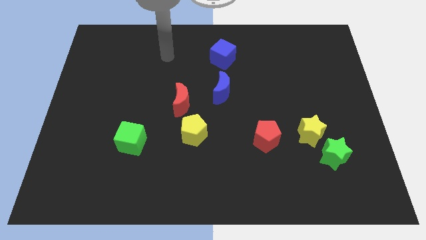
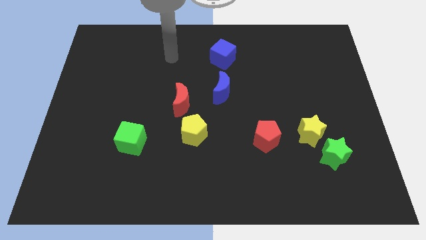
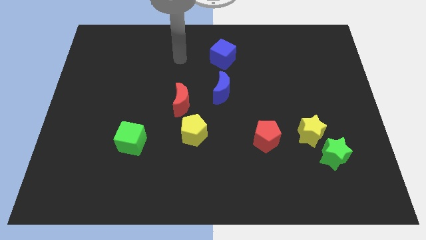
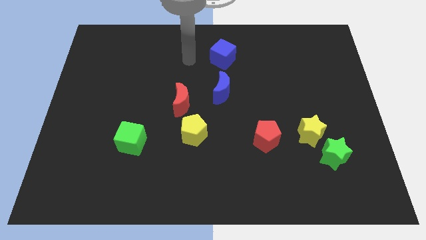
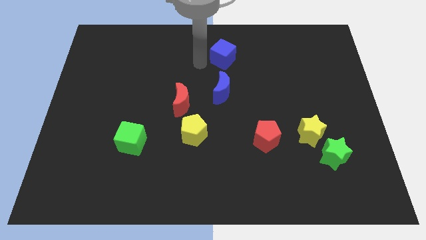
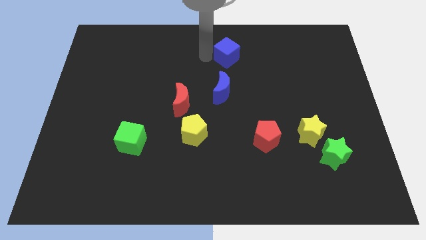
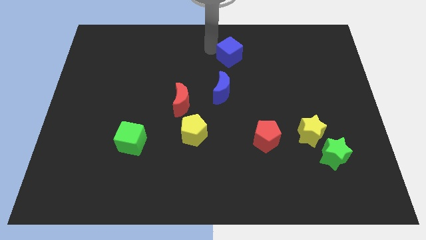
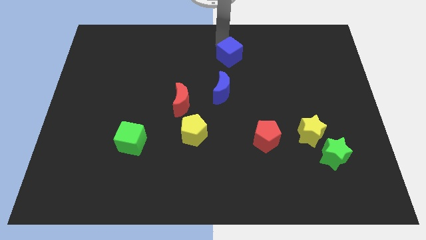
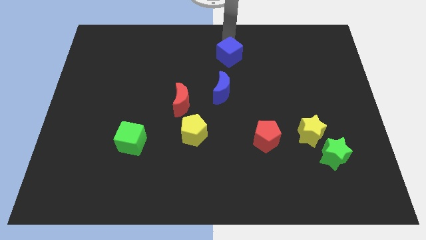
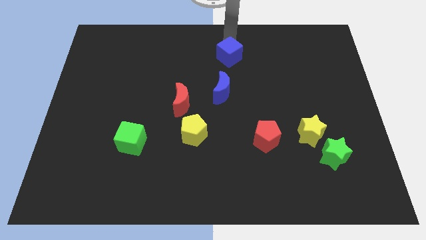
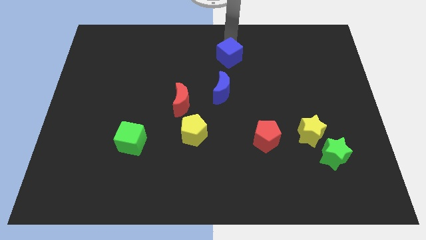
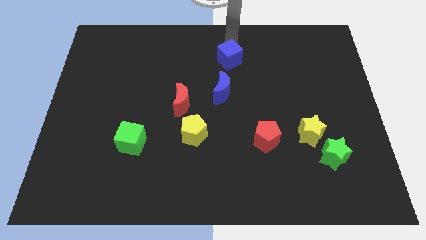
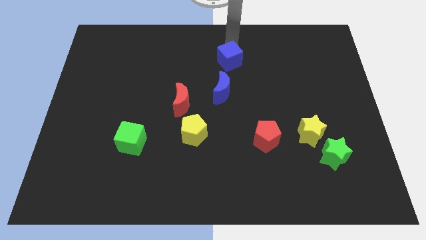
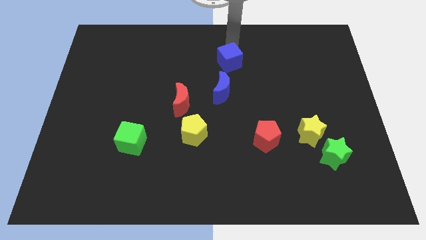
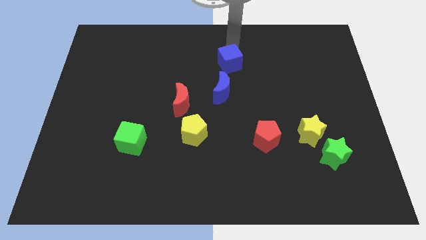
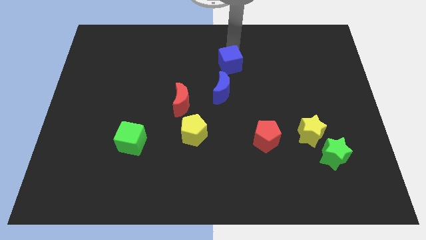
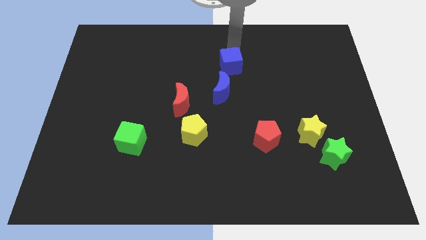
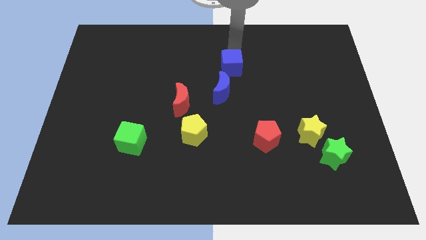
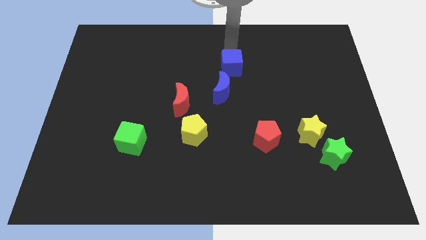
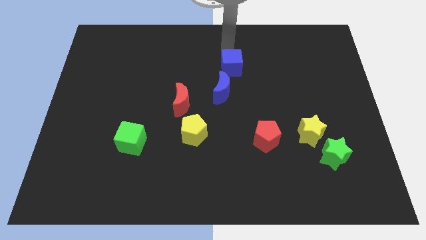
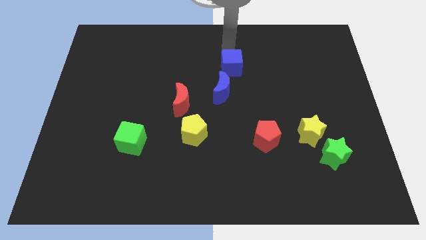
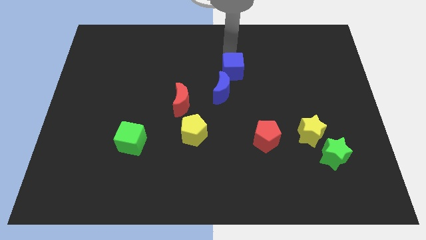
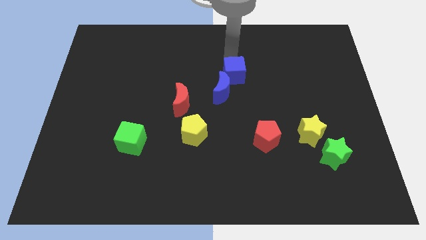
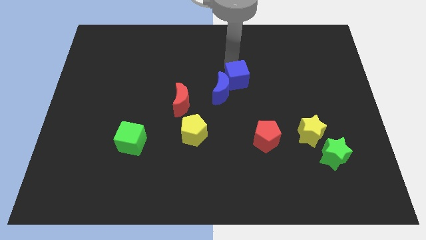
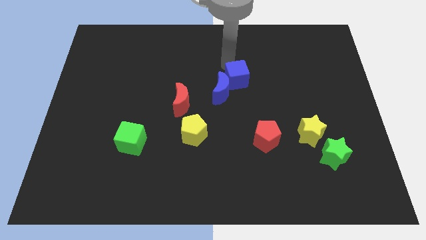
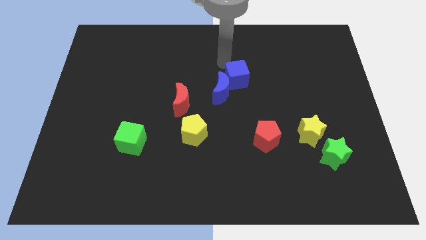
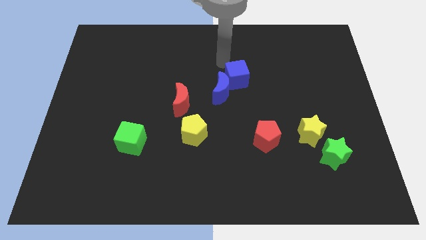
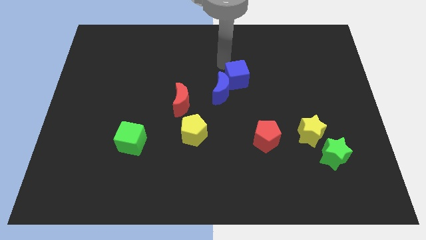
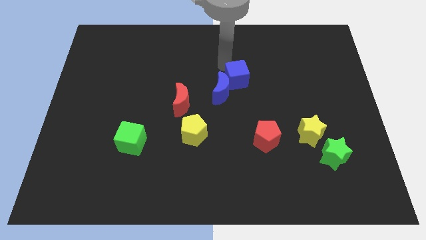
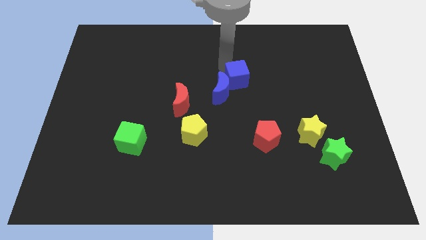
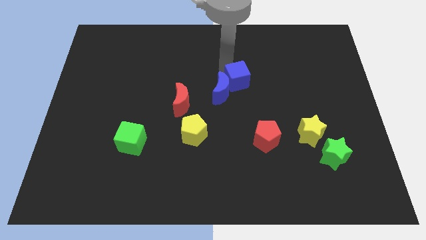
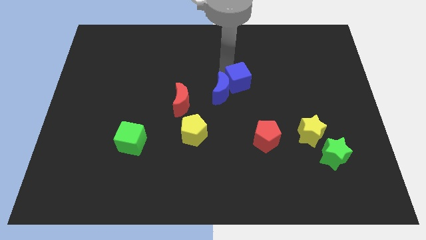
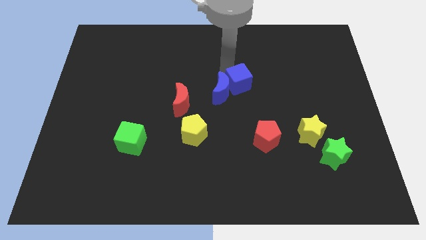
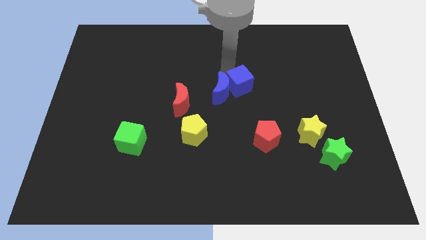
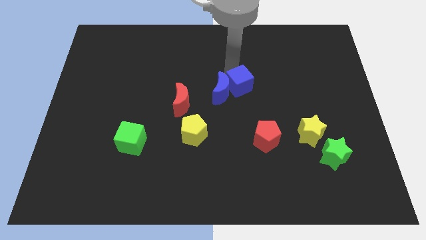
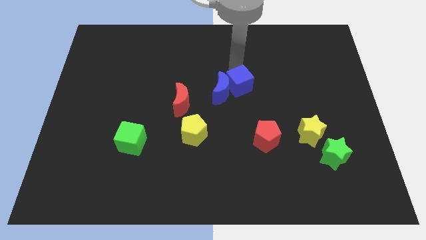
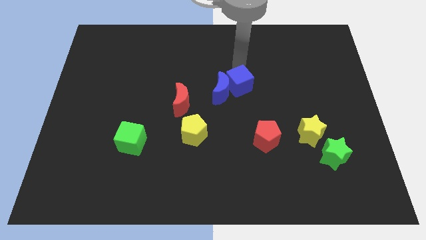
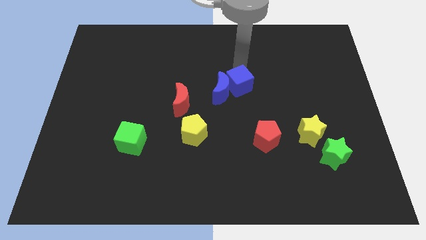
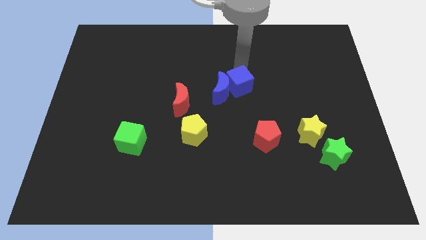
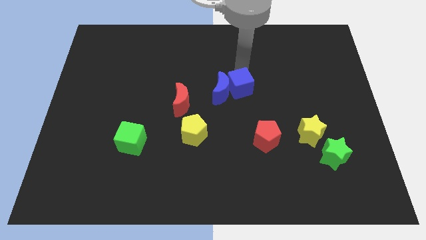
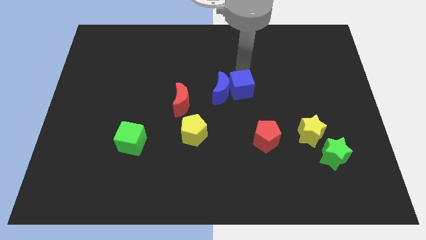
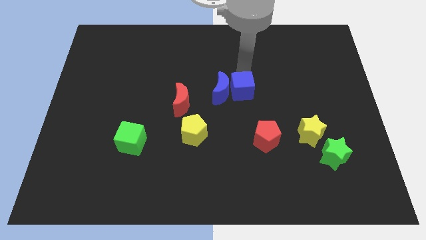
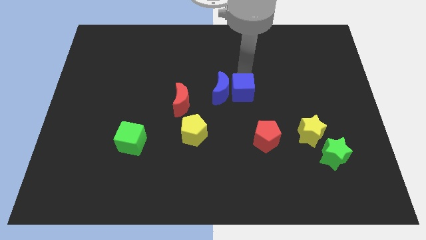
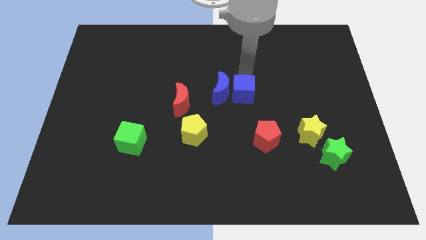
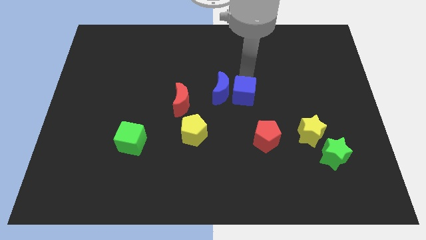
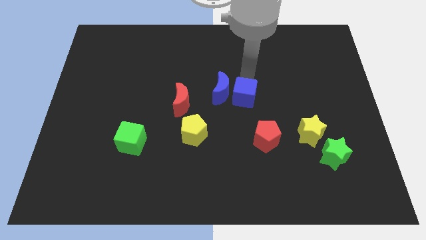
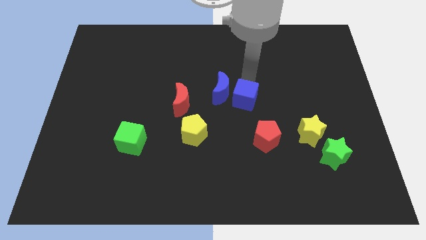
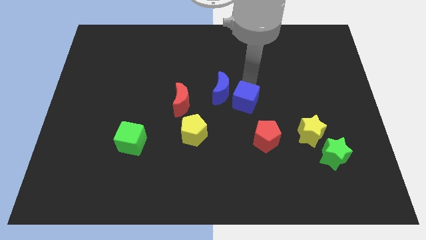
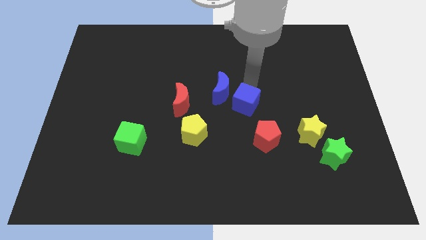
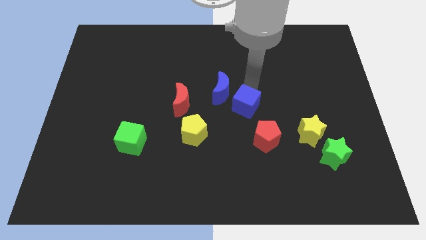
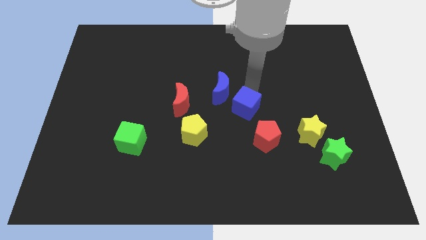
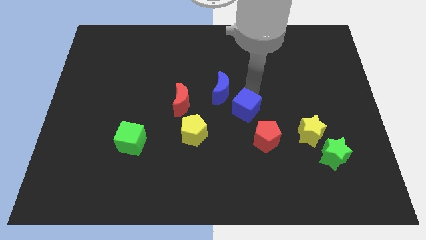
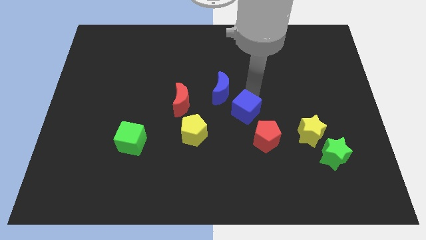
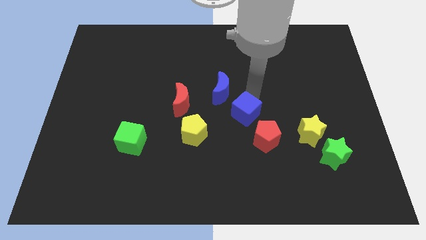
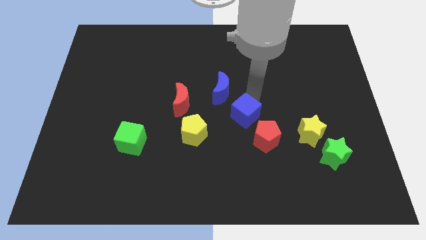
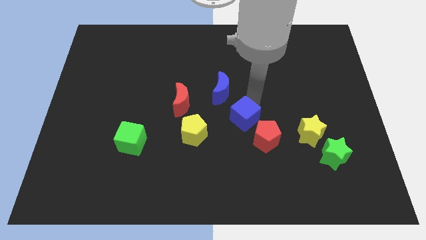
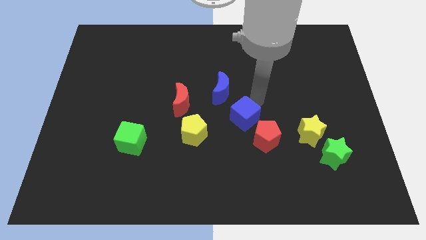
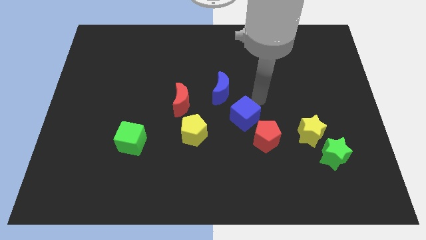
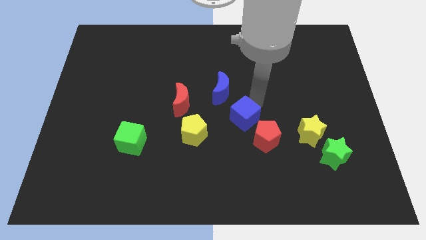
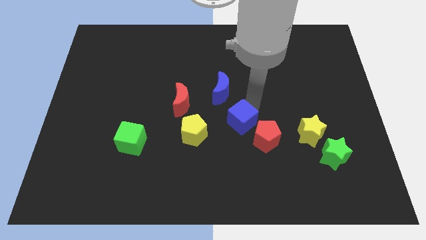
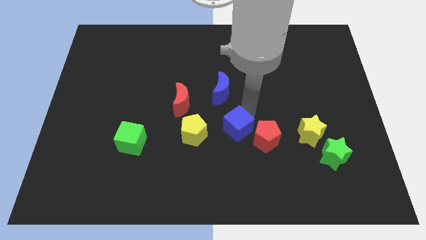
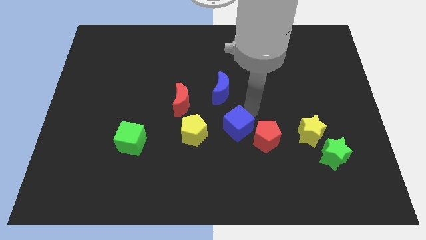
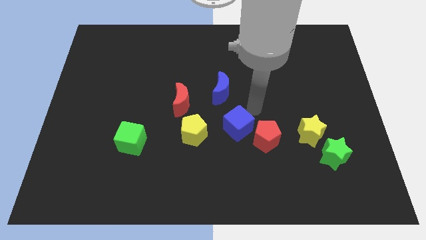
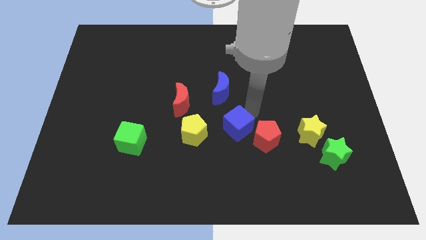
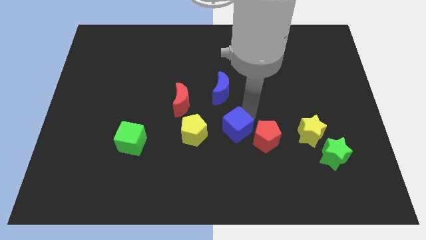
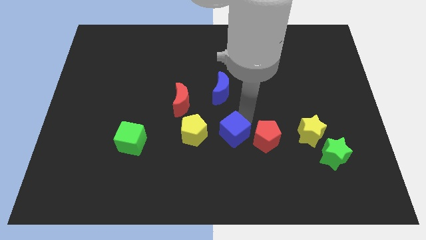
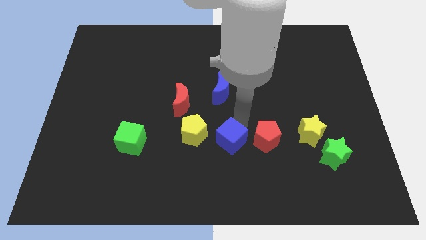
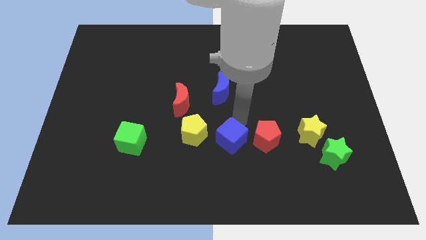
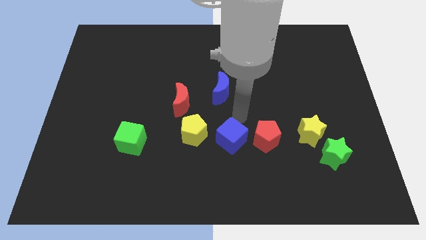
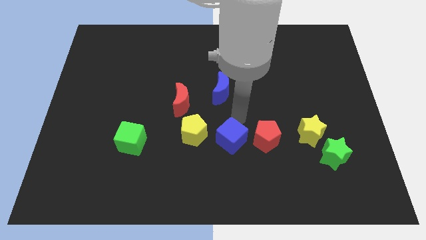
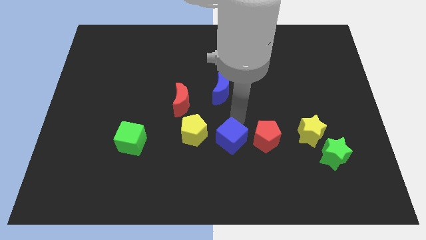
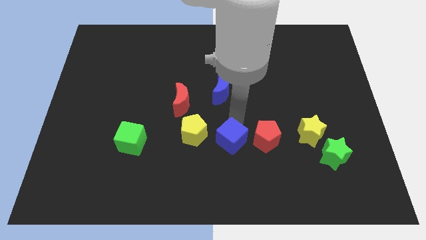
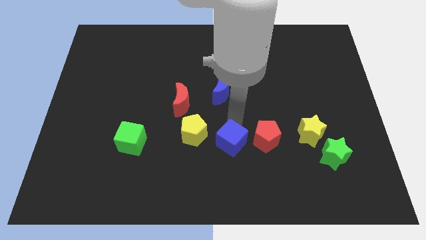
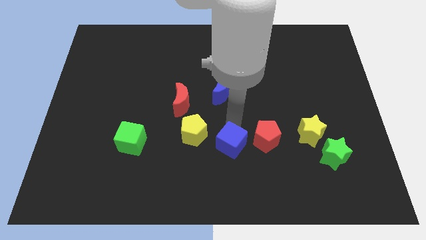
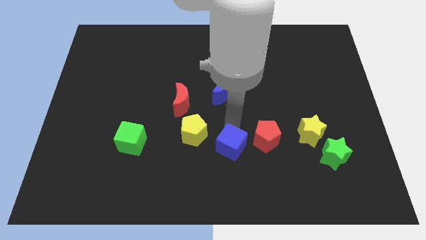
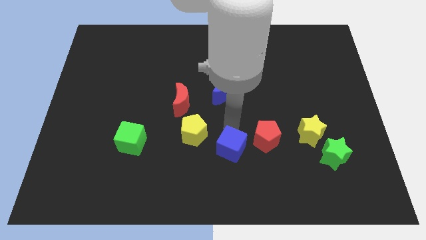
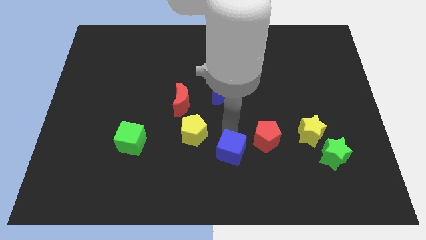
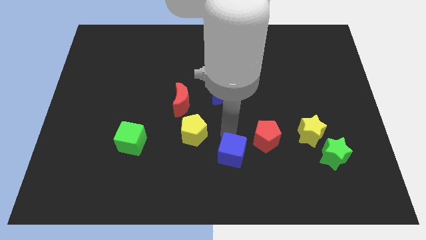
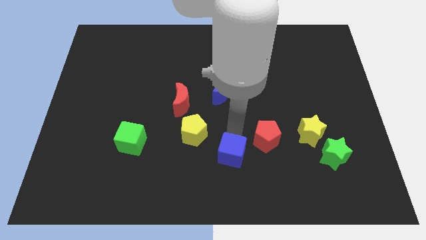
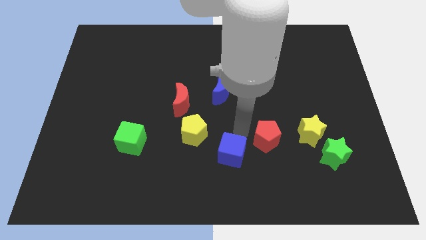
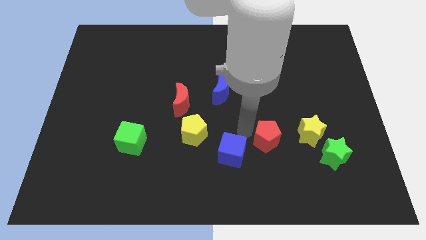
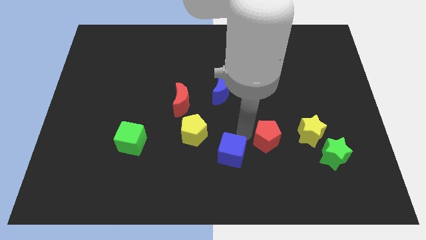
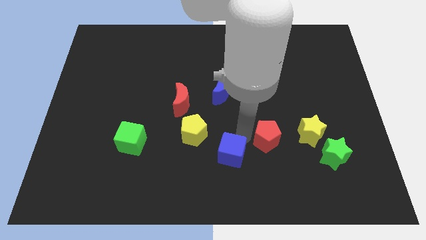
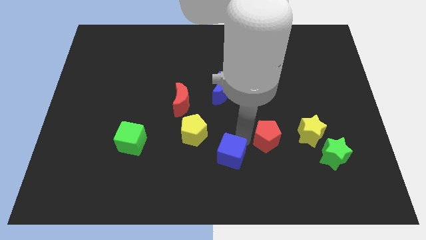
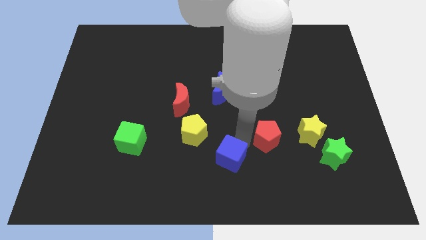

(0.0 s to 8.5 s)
move the blue cube to the bottom
